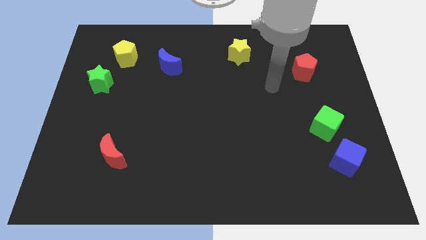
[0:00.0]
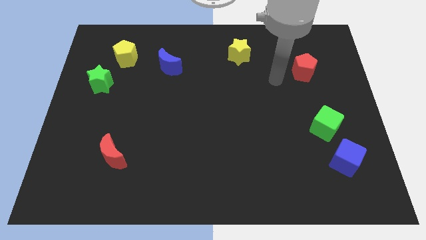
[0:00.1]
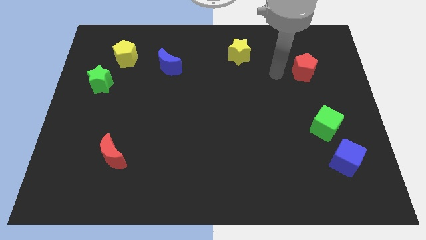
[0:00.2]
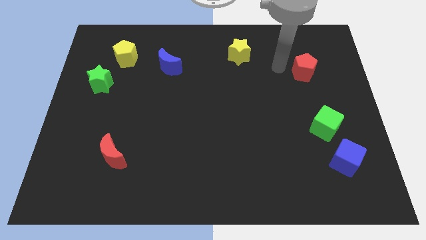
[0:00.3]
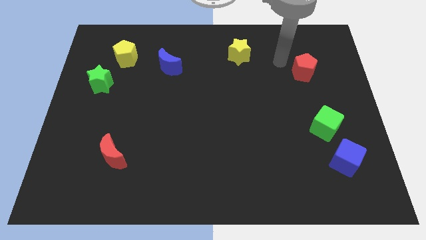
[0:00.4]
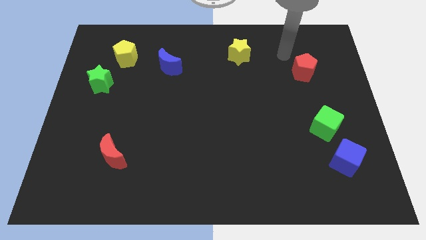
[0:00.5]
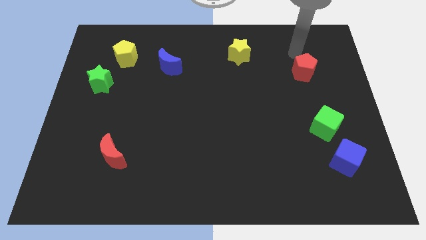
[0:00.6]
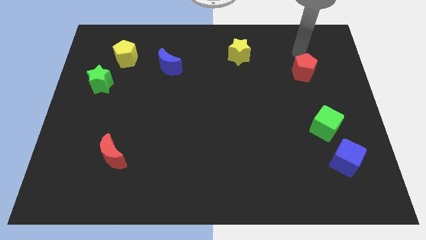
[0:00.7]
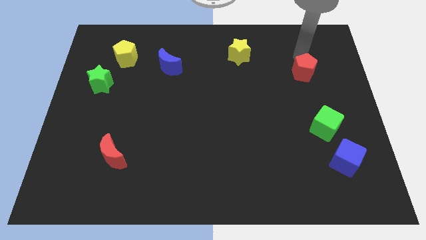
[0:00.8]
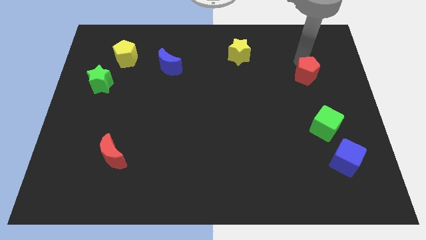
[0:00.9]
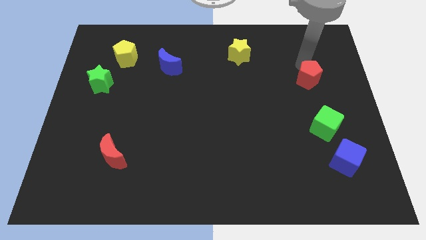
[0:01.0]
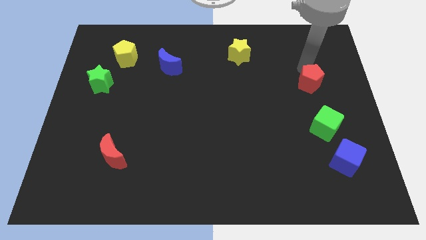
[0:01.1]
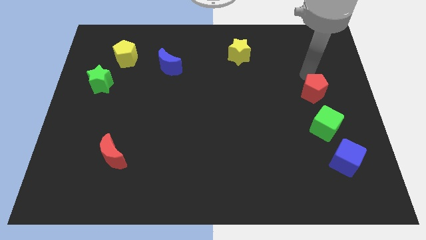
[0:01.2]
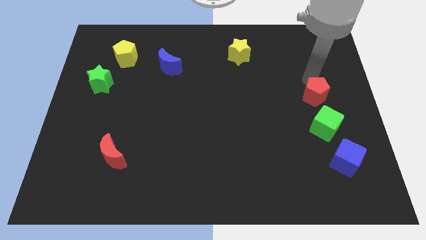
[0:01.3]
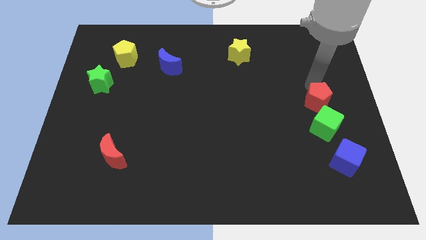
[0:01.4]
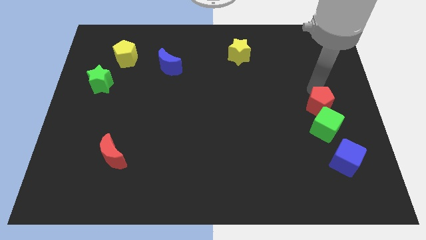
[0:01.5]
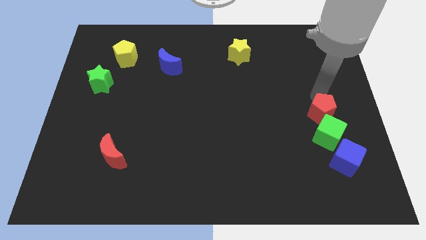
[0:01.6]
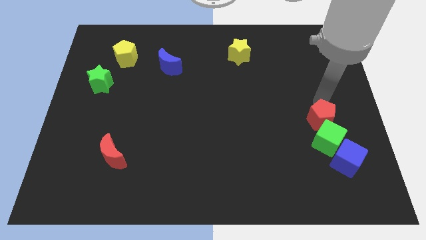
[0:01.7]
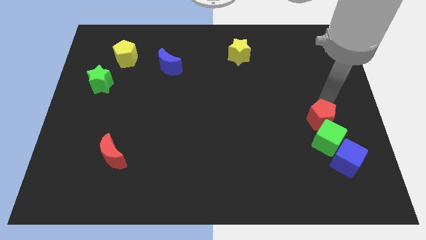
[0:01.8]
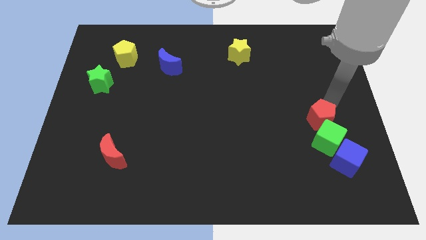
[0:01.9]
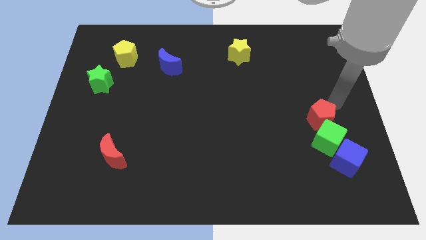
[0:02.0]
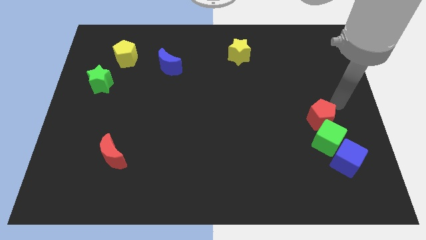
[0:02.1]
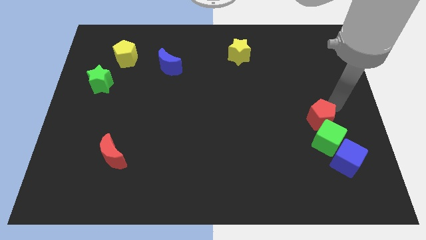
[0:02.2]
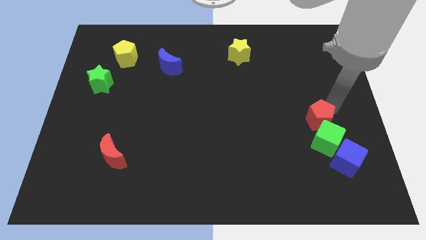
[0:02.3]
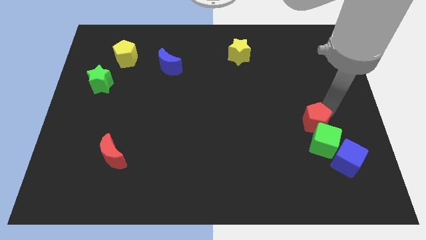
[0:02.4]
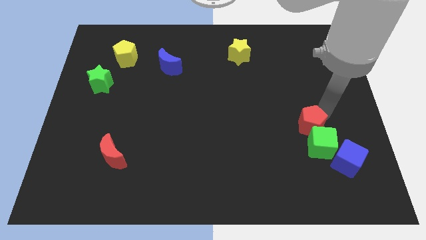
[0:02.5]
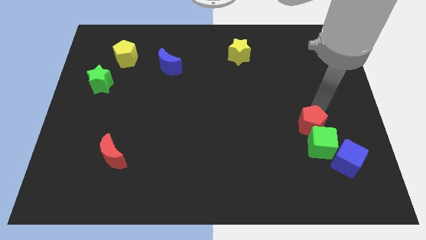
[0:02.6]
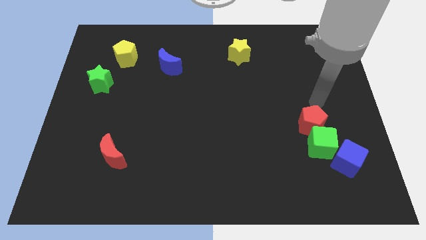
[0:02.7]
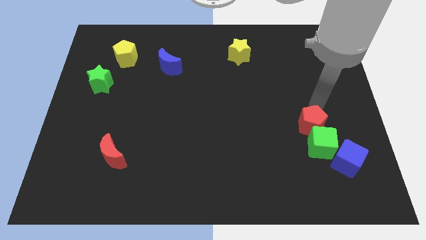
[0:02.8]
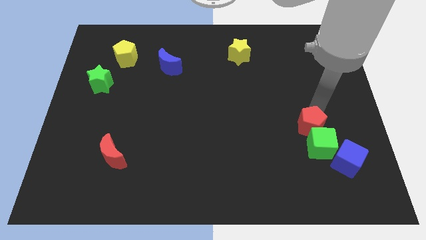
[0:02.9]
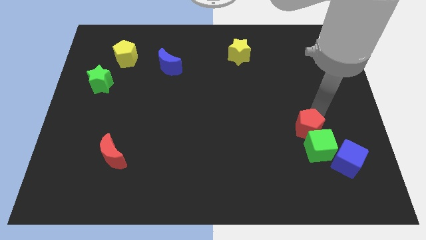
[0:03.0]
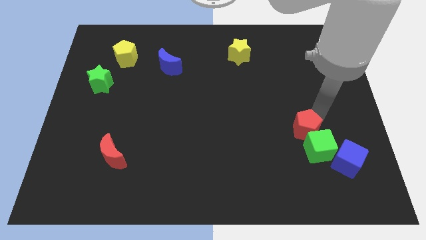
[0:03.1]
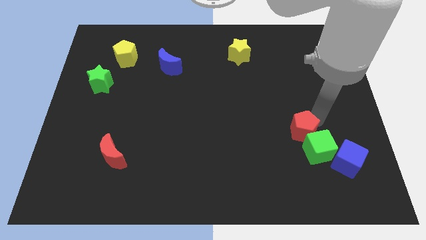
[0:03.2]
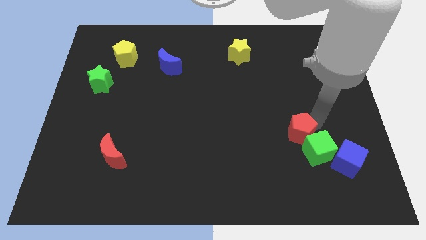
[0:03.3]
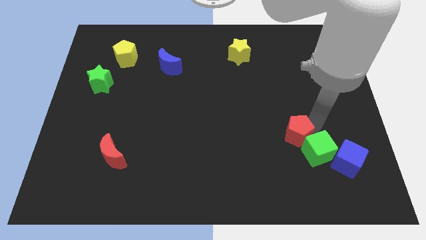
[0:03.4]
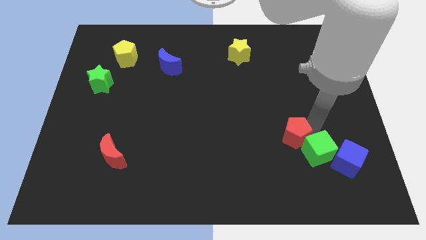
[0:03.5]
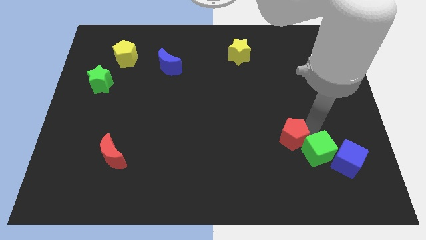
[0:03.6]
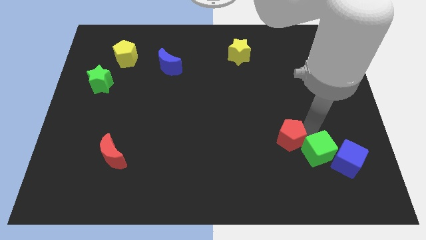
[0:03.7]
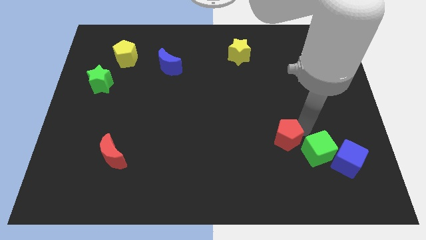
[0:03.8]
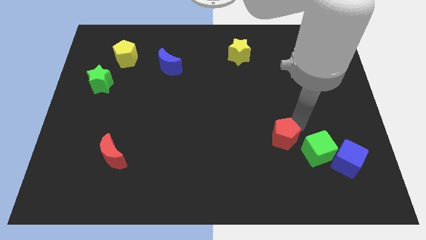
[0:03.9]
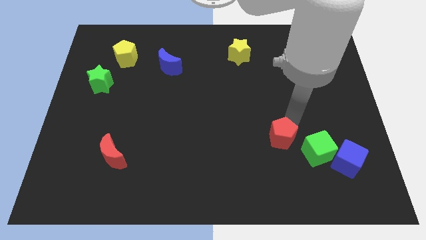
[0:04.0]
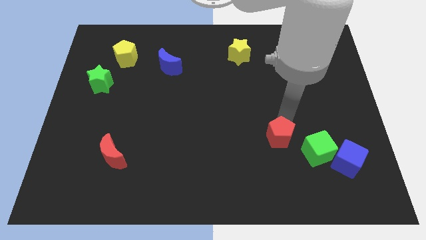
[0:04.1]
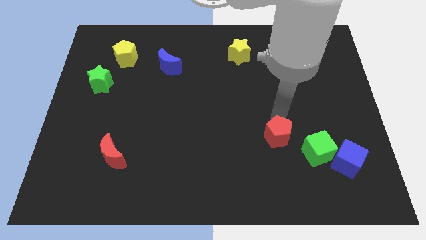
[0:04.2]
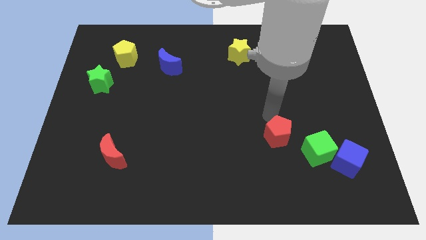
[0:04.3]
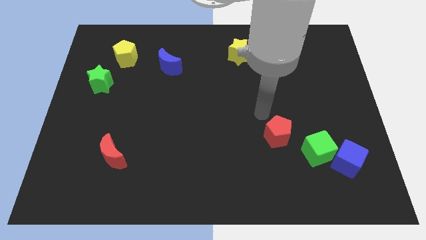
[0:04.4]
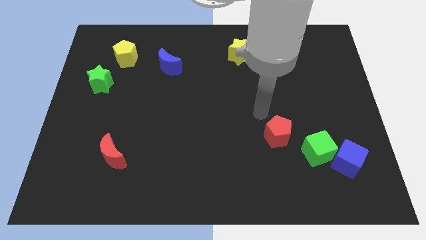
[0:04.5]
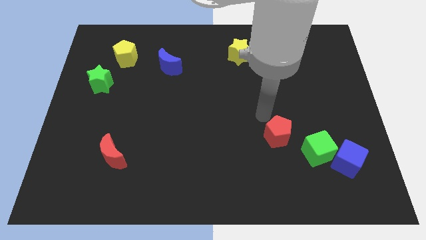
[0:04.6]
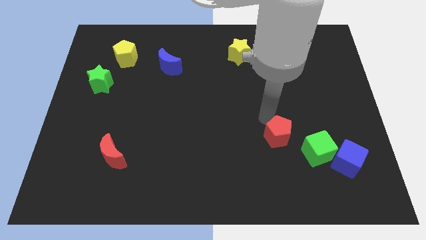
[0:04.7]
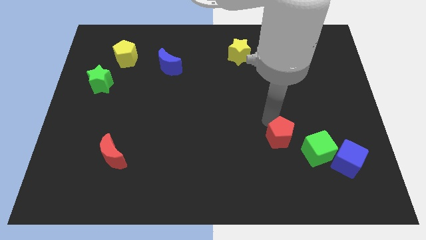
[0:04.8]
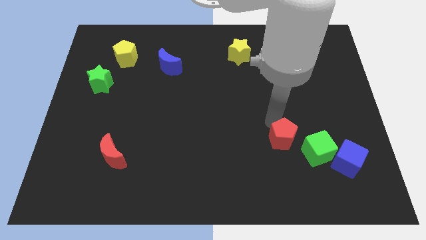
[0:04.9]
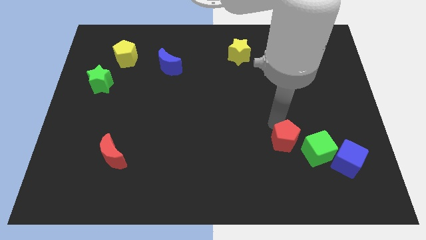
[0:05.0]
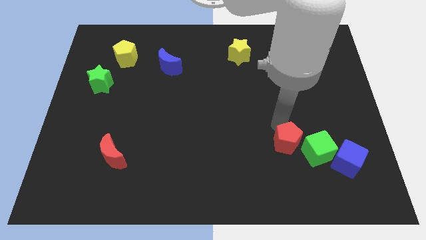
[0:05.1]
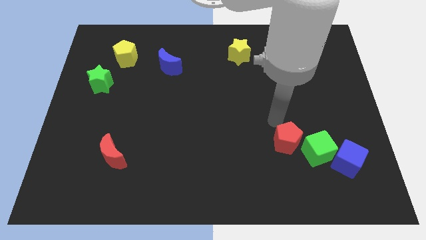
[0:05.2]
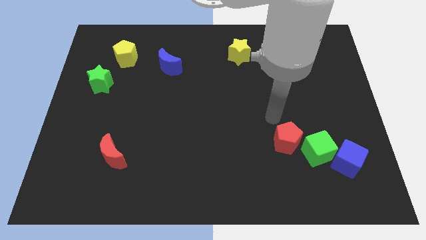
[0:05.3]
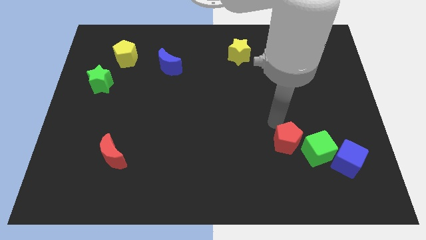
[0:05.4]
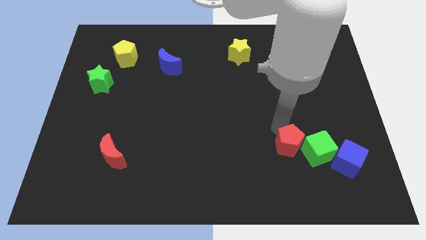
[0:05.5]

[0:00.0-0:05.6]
slide the red pentagon left of the blue cube

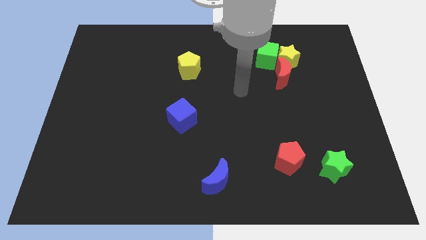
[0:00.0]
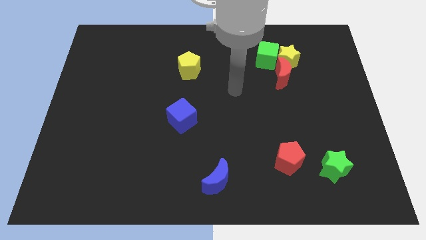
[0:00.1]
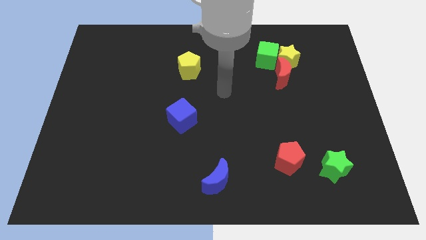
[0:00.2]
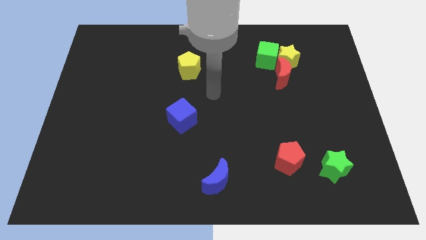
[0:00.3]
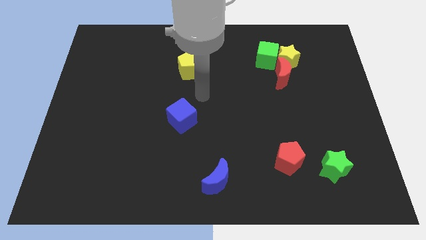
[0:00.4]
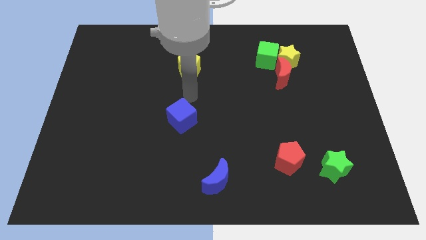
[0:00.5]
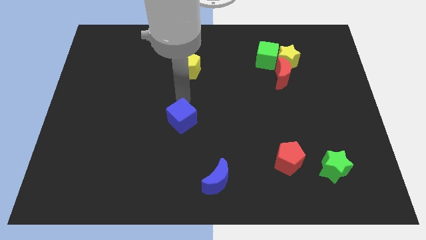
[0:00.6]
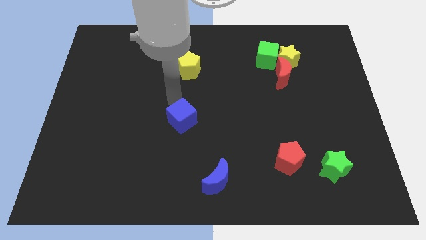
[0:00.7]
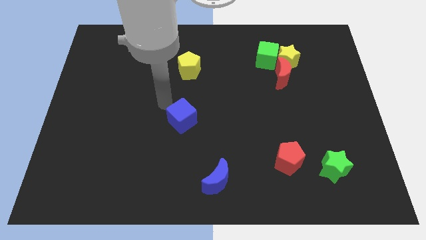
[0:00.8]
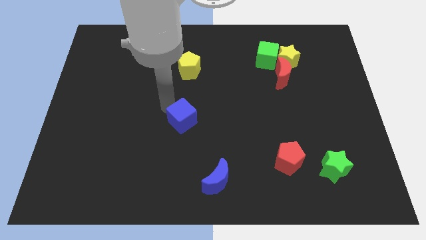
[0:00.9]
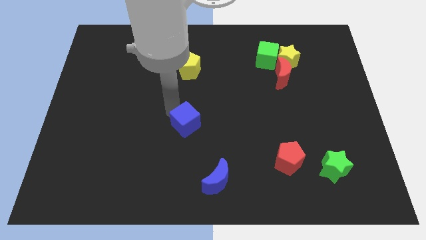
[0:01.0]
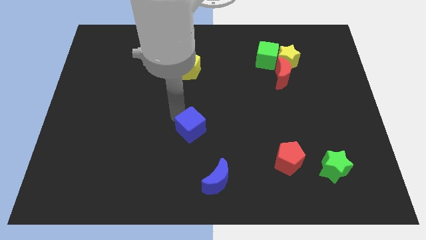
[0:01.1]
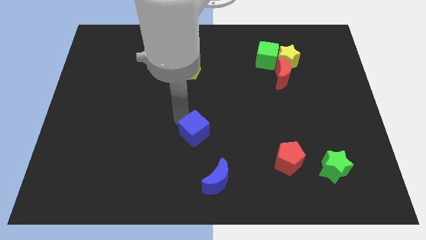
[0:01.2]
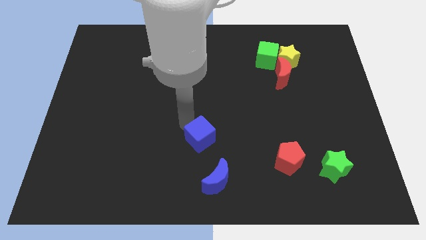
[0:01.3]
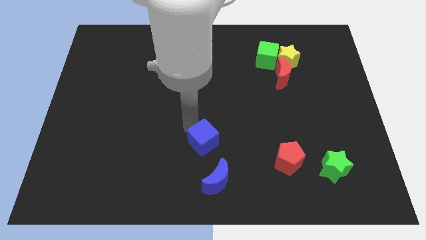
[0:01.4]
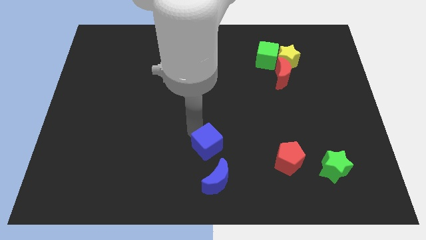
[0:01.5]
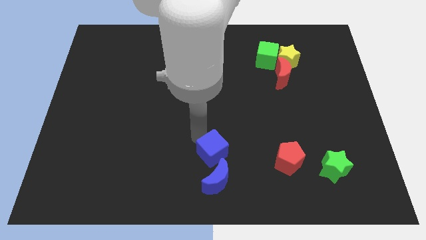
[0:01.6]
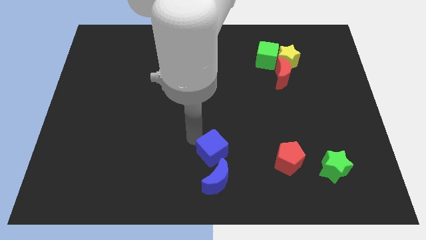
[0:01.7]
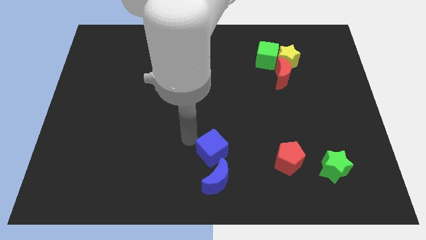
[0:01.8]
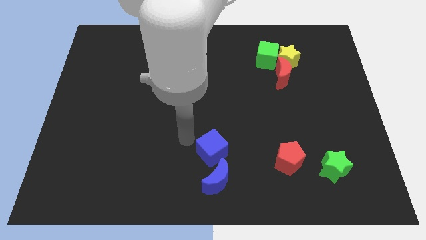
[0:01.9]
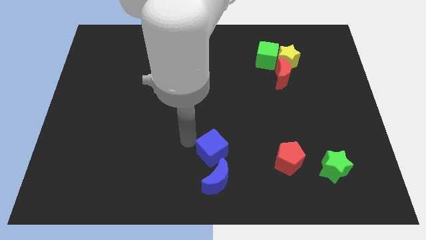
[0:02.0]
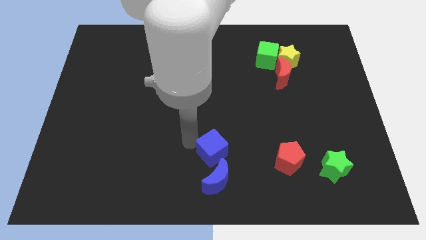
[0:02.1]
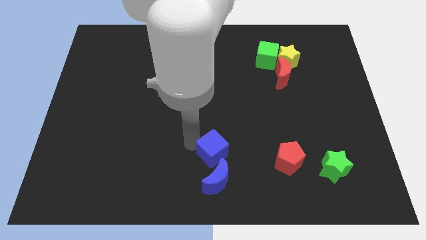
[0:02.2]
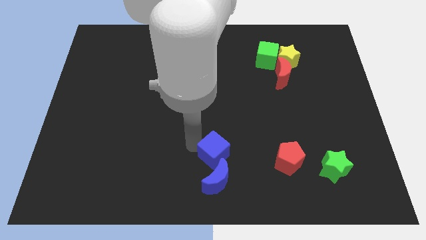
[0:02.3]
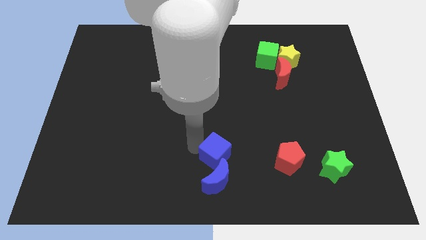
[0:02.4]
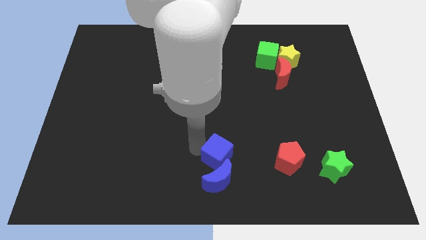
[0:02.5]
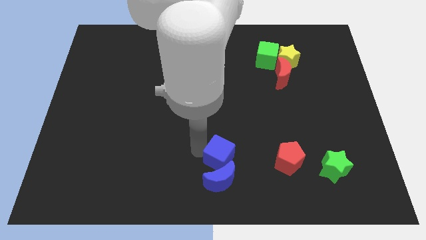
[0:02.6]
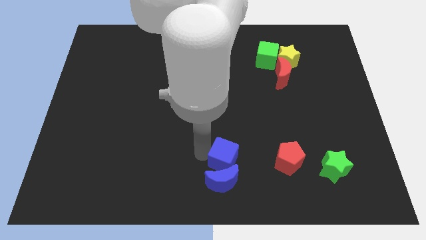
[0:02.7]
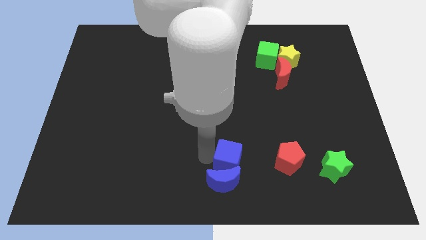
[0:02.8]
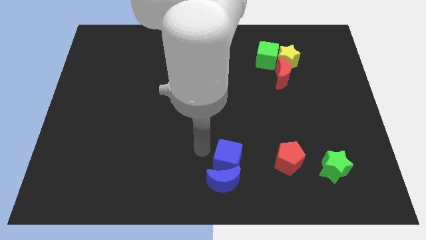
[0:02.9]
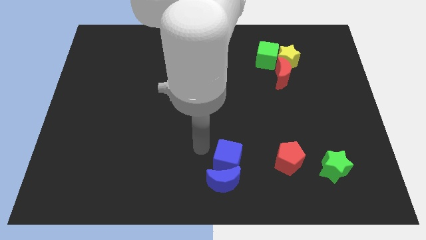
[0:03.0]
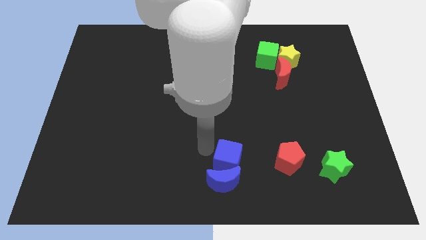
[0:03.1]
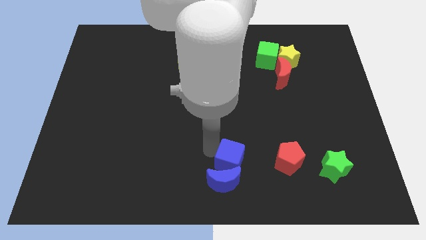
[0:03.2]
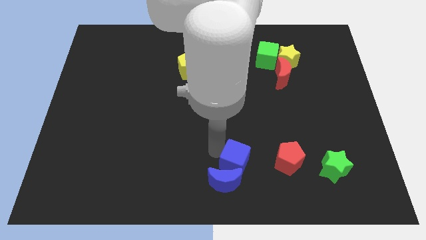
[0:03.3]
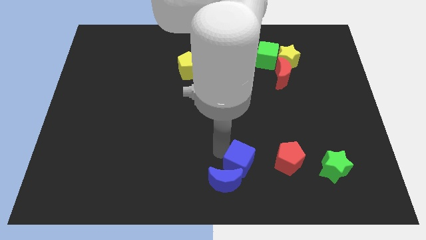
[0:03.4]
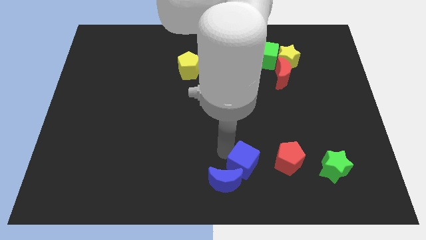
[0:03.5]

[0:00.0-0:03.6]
slide the blue cube to the right side of the blue moon
